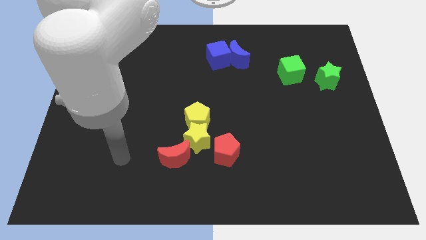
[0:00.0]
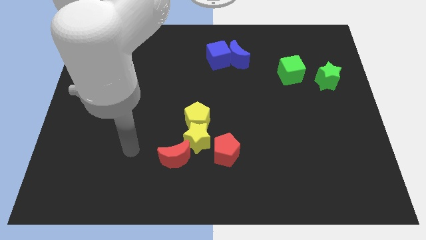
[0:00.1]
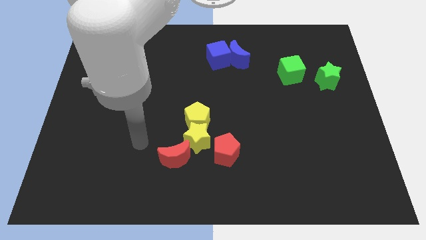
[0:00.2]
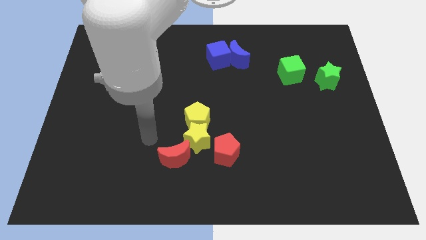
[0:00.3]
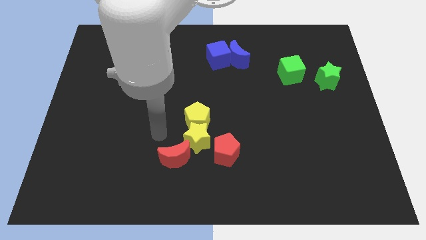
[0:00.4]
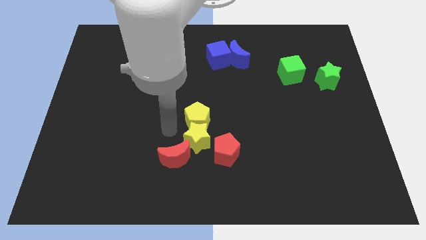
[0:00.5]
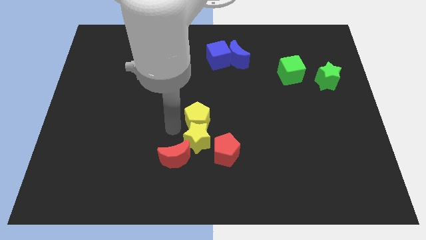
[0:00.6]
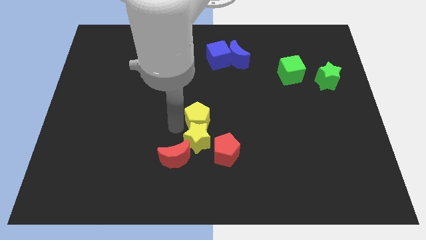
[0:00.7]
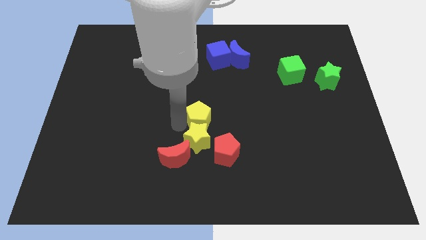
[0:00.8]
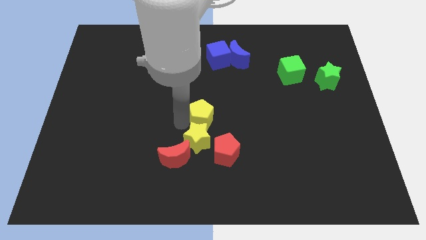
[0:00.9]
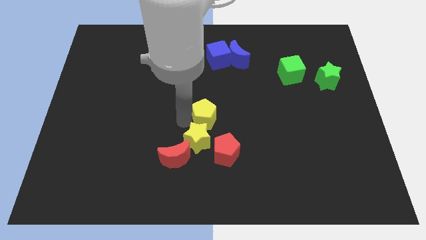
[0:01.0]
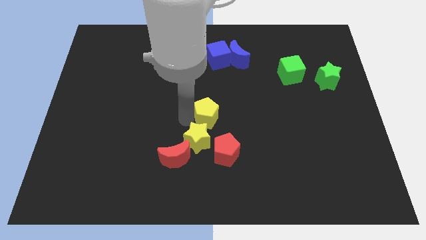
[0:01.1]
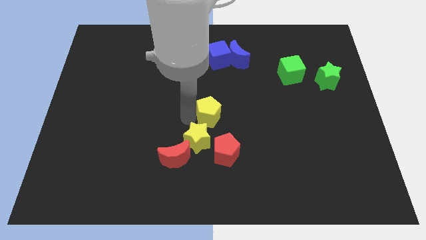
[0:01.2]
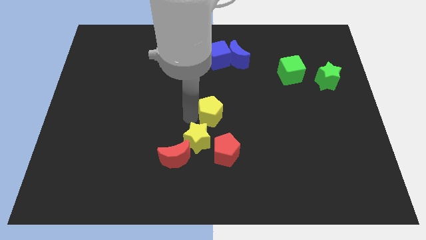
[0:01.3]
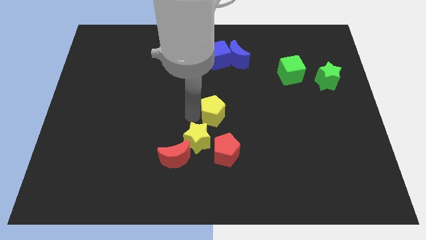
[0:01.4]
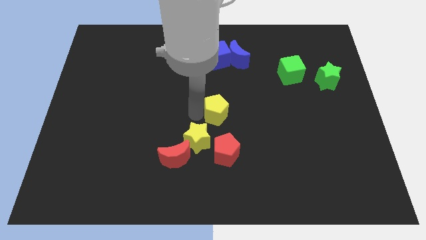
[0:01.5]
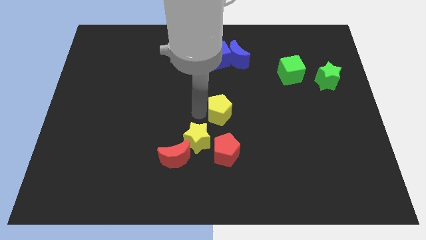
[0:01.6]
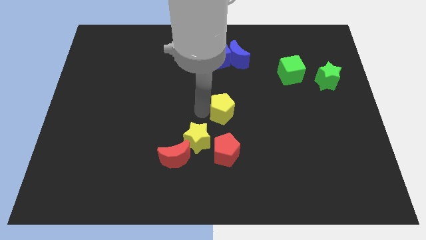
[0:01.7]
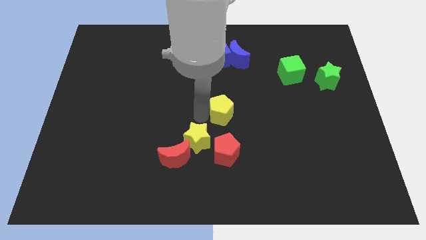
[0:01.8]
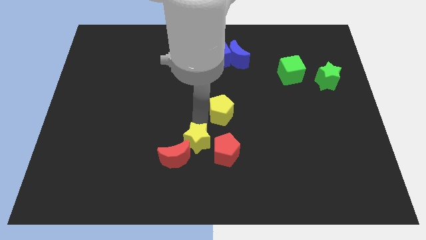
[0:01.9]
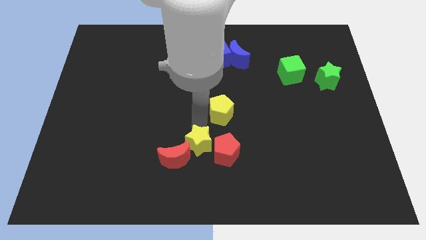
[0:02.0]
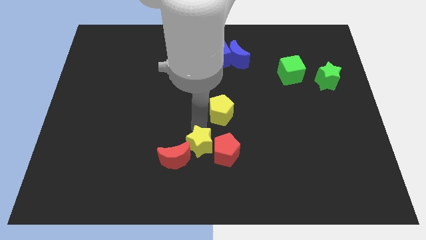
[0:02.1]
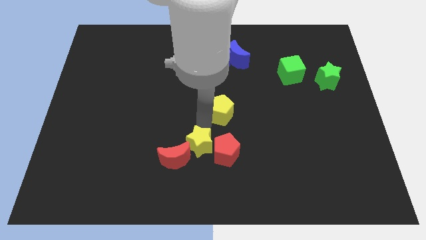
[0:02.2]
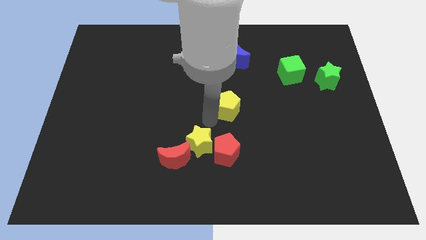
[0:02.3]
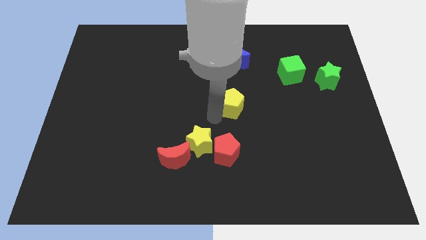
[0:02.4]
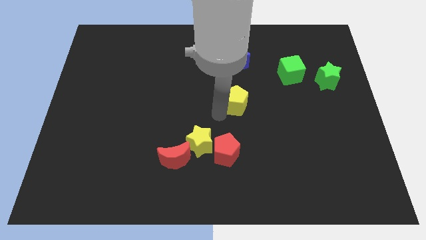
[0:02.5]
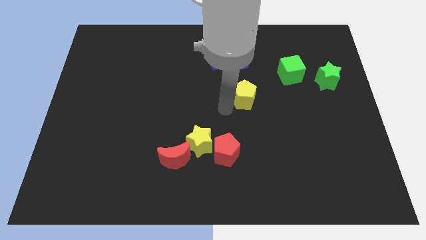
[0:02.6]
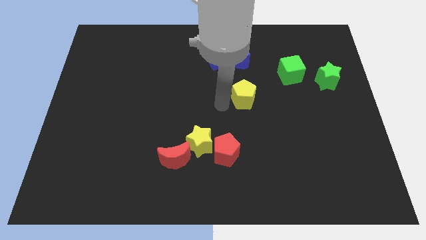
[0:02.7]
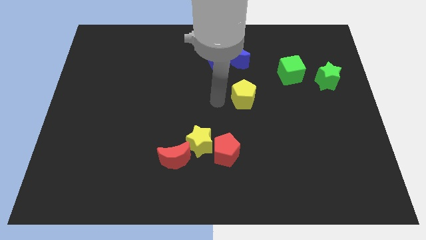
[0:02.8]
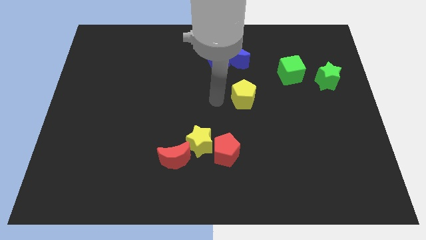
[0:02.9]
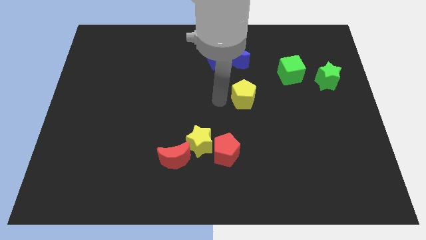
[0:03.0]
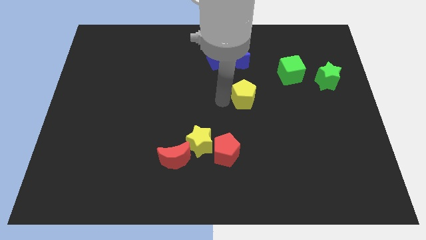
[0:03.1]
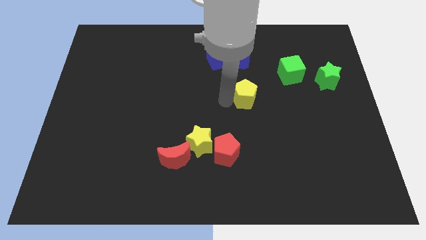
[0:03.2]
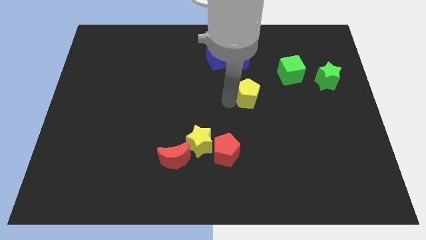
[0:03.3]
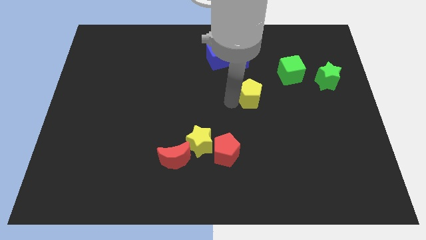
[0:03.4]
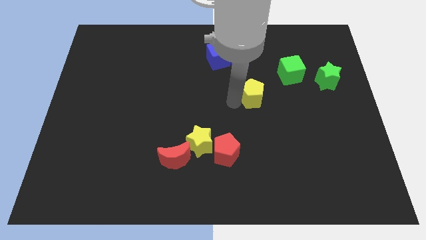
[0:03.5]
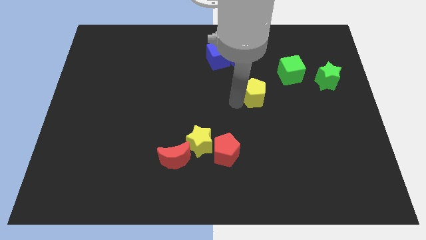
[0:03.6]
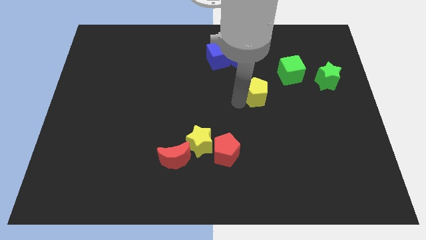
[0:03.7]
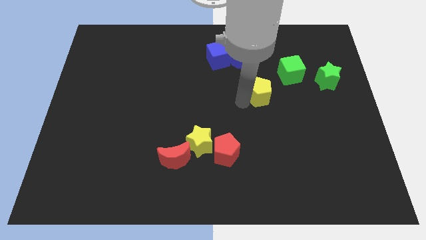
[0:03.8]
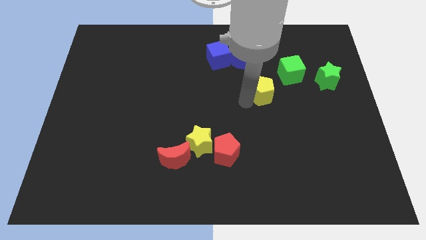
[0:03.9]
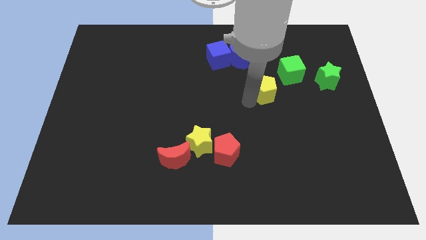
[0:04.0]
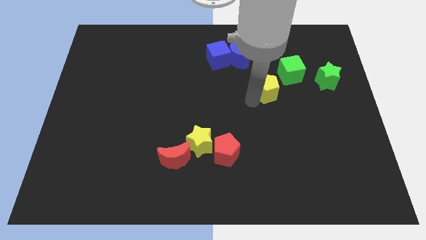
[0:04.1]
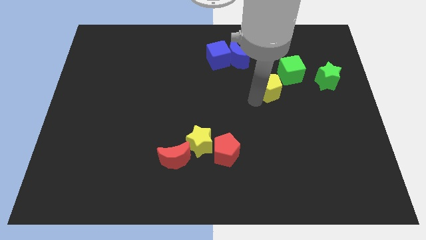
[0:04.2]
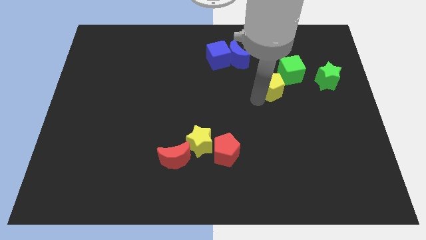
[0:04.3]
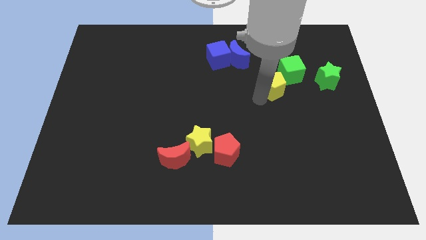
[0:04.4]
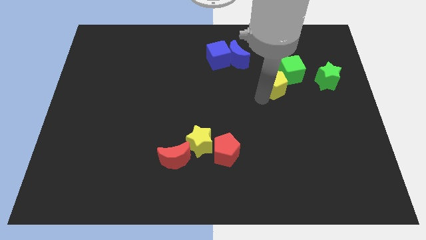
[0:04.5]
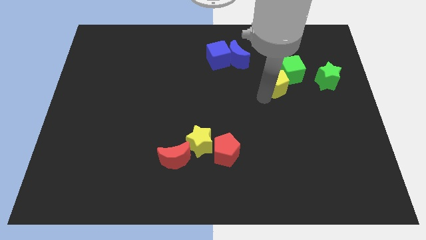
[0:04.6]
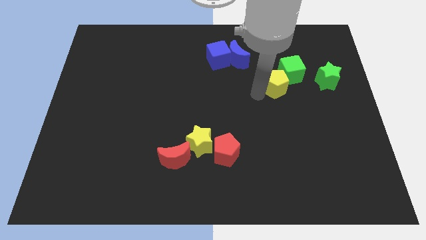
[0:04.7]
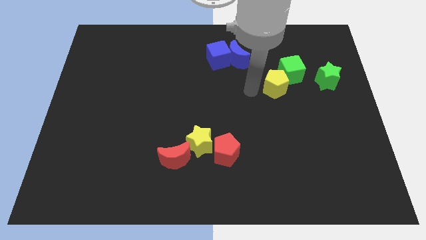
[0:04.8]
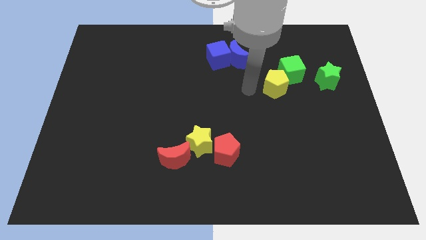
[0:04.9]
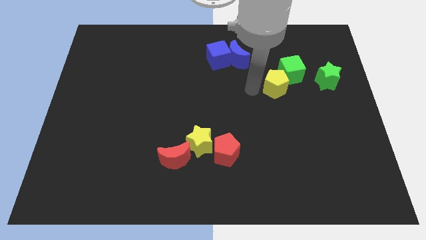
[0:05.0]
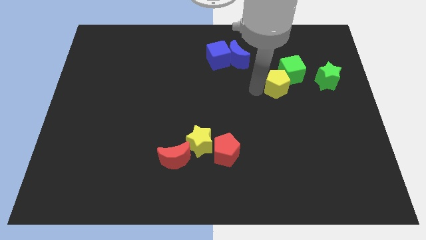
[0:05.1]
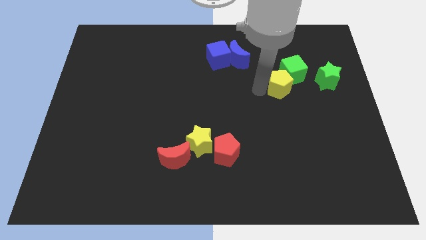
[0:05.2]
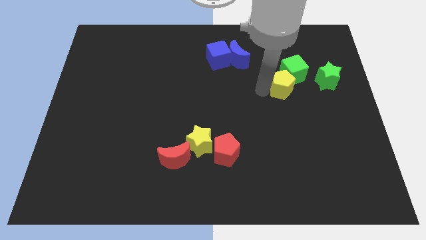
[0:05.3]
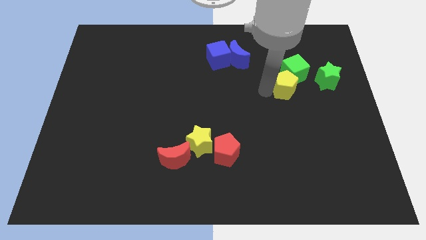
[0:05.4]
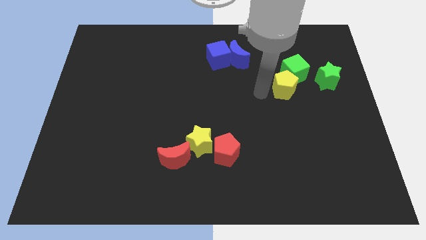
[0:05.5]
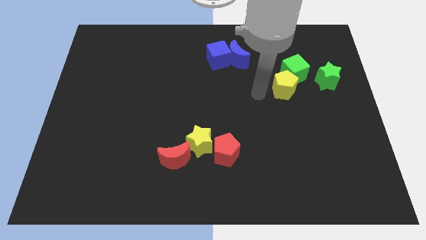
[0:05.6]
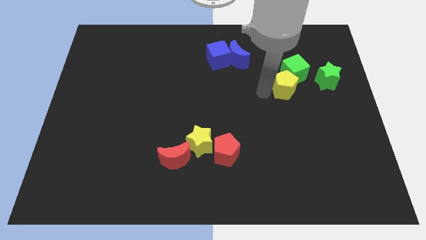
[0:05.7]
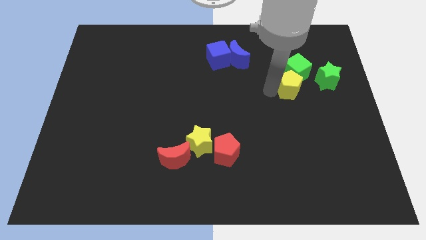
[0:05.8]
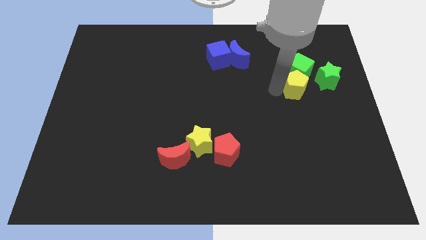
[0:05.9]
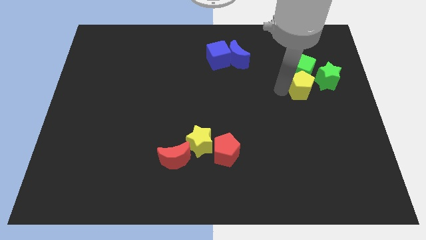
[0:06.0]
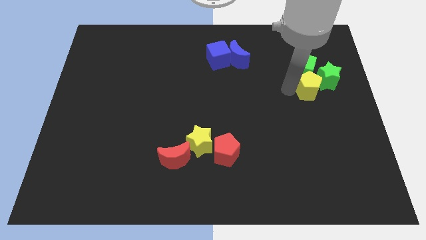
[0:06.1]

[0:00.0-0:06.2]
move the yellow pentagon next to the green star

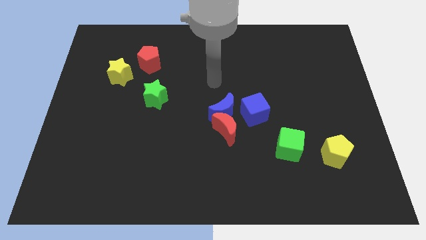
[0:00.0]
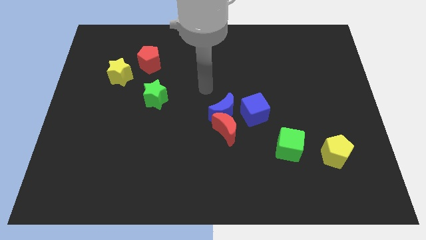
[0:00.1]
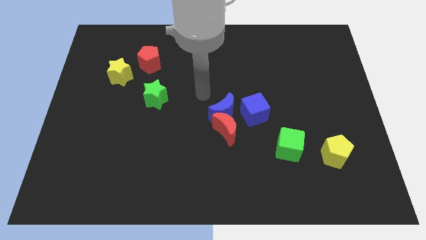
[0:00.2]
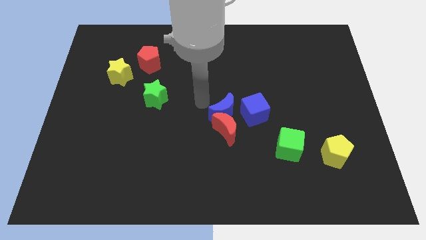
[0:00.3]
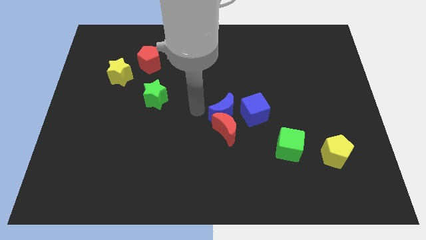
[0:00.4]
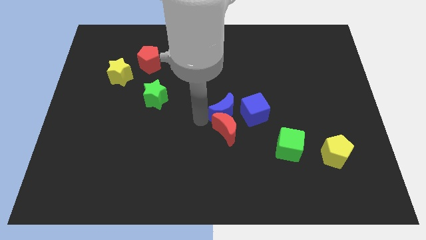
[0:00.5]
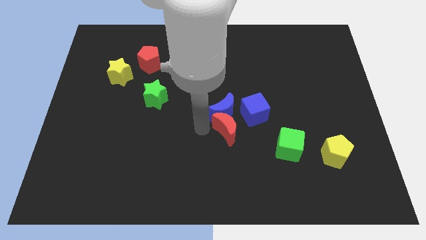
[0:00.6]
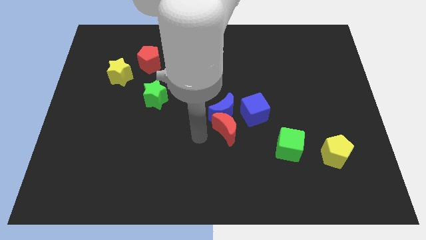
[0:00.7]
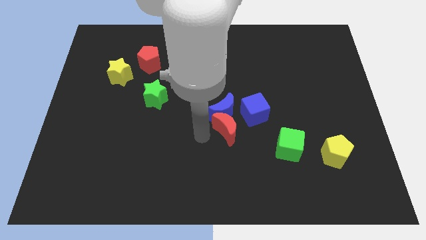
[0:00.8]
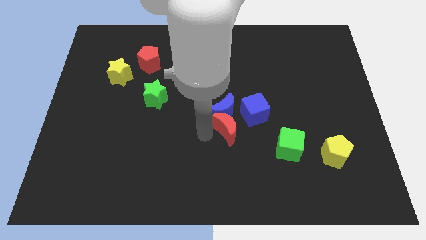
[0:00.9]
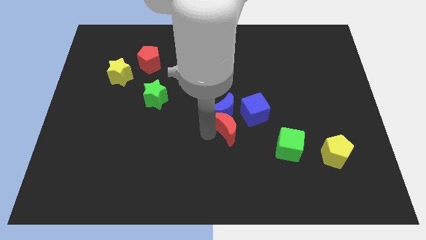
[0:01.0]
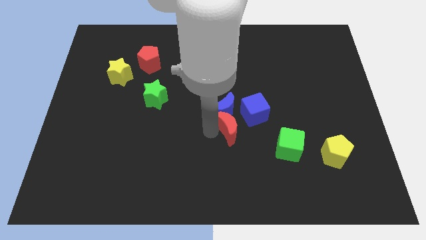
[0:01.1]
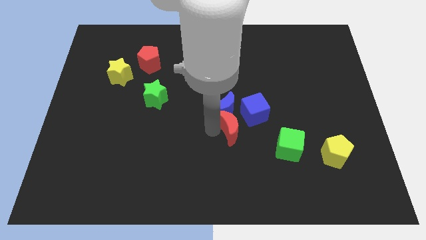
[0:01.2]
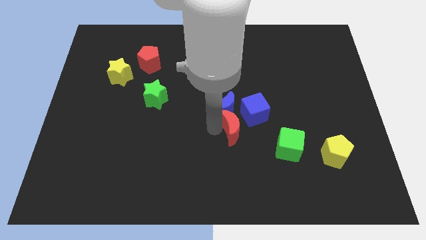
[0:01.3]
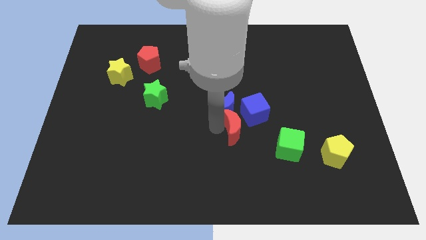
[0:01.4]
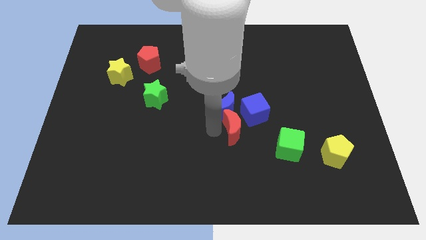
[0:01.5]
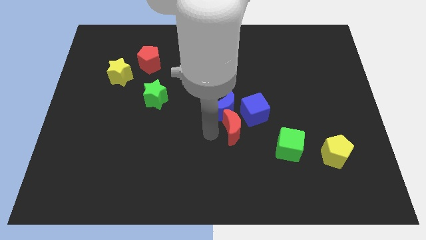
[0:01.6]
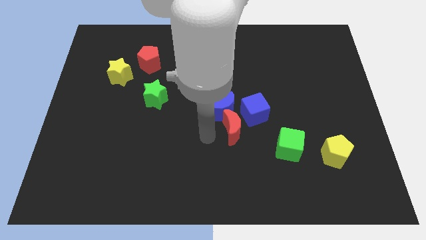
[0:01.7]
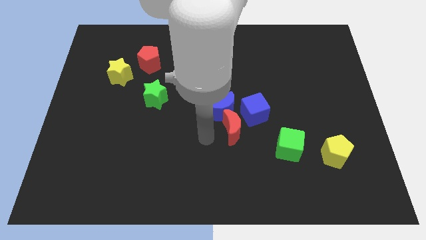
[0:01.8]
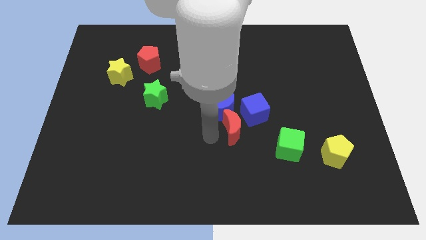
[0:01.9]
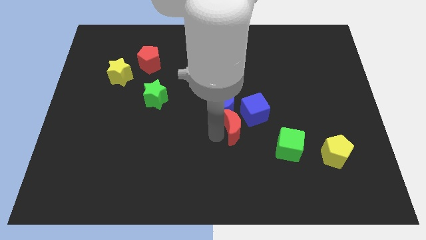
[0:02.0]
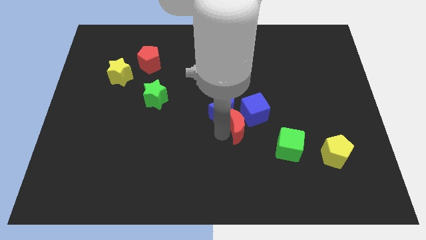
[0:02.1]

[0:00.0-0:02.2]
push the red moon close to the blue cube

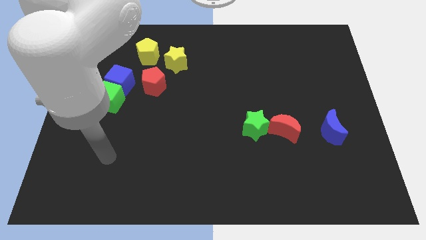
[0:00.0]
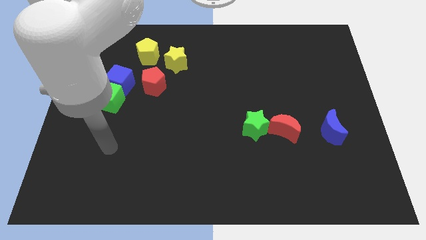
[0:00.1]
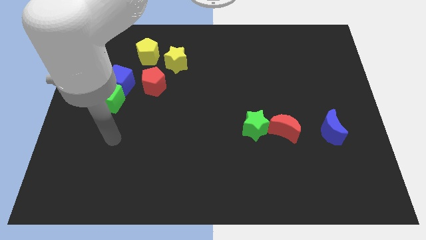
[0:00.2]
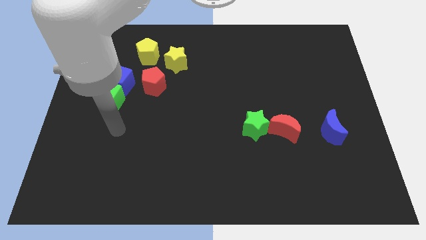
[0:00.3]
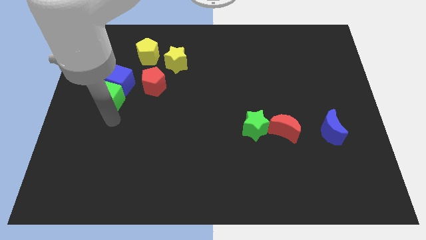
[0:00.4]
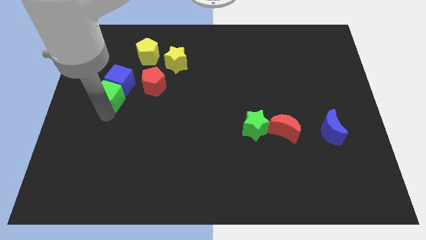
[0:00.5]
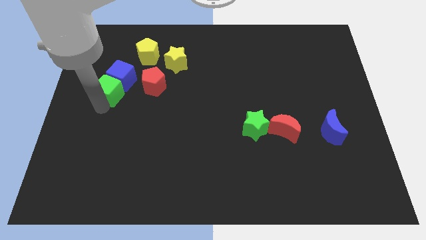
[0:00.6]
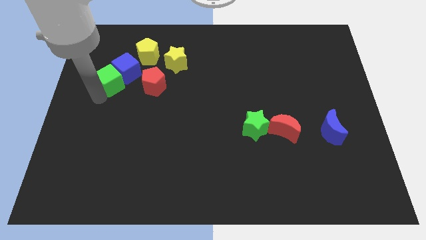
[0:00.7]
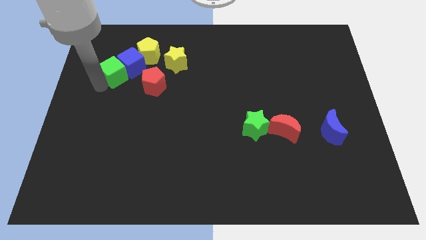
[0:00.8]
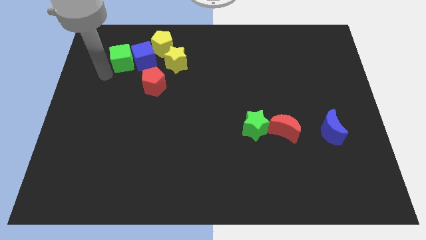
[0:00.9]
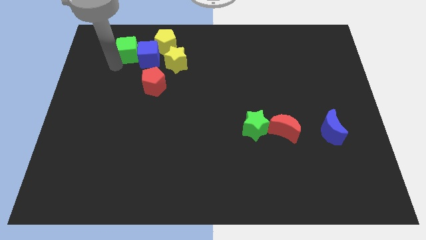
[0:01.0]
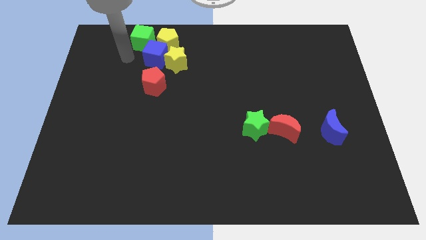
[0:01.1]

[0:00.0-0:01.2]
push the blue cube close to the yellow star
